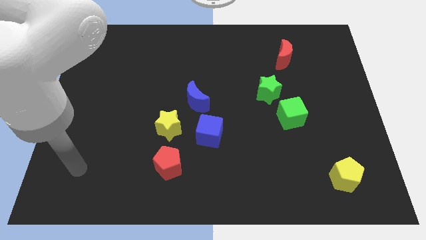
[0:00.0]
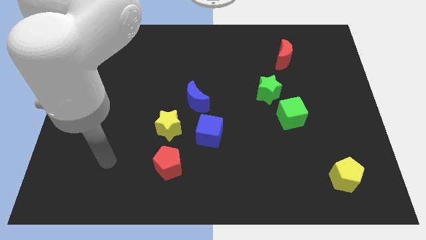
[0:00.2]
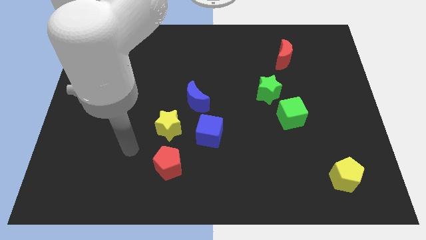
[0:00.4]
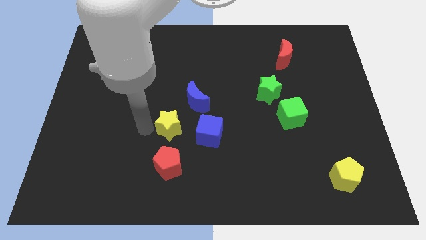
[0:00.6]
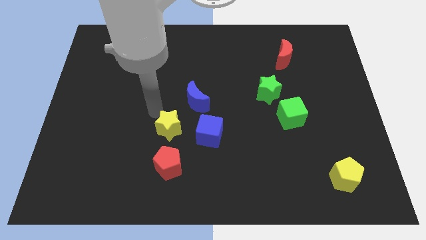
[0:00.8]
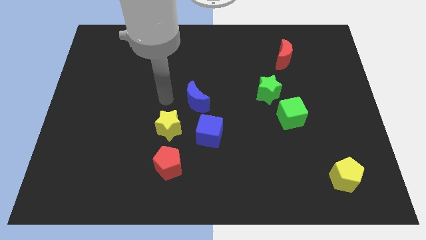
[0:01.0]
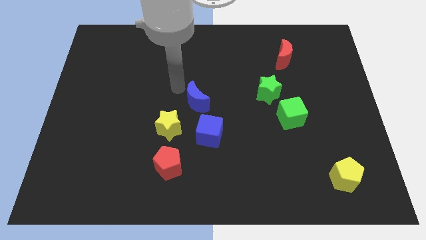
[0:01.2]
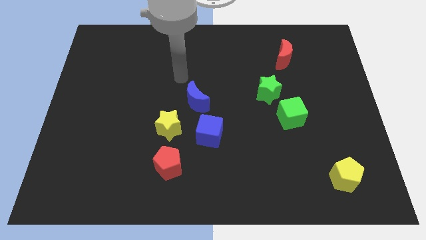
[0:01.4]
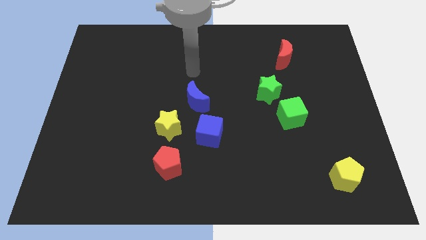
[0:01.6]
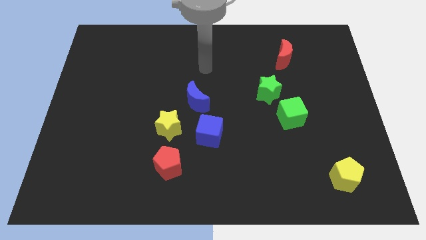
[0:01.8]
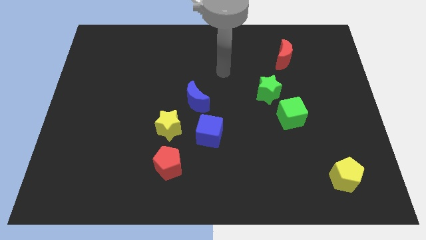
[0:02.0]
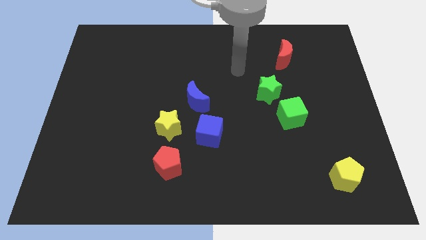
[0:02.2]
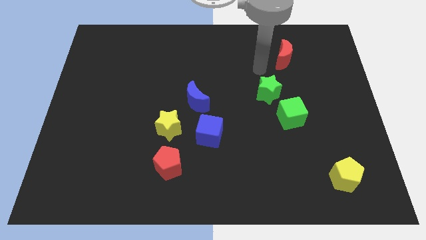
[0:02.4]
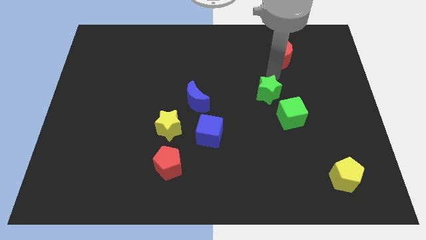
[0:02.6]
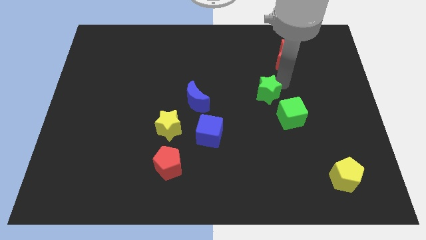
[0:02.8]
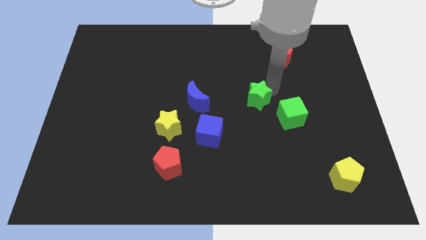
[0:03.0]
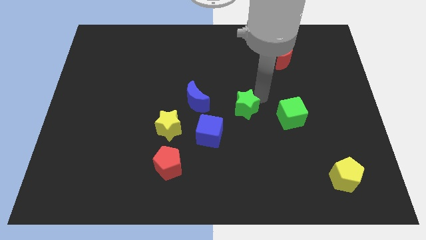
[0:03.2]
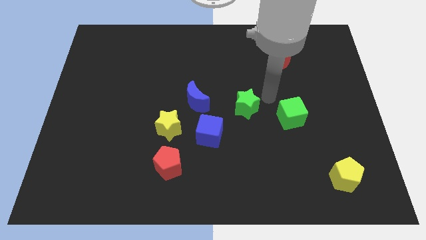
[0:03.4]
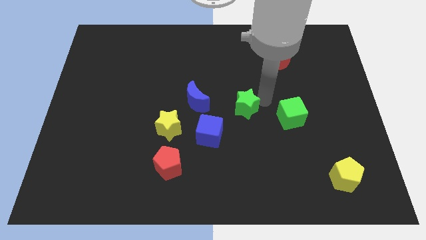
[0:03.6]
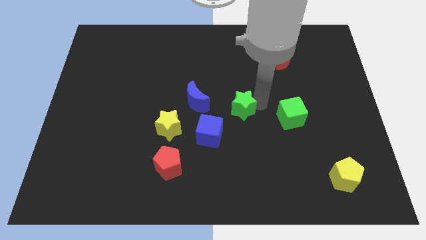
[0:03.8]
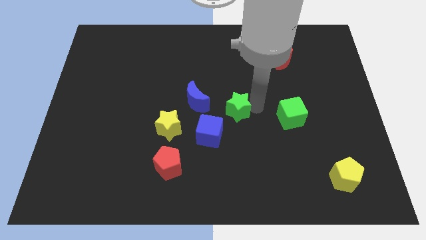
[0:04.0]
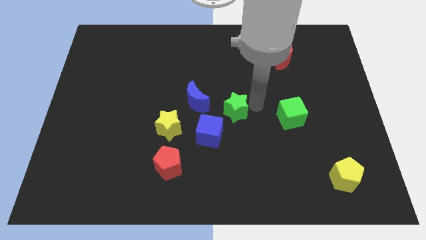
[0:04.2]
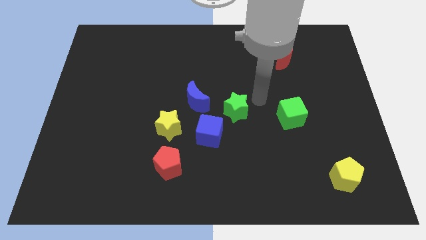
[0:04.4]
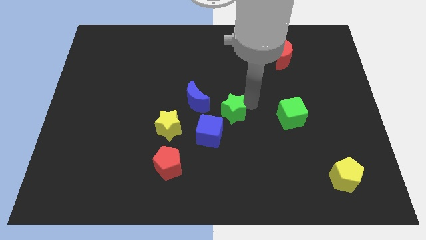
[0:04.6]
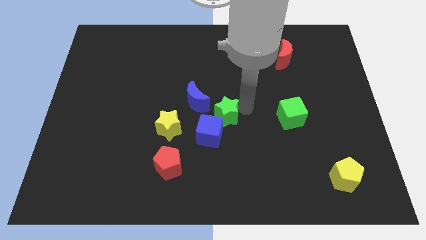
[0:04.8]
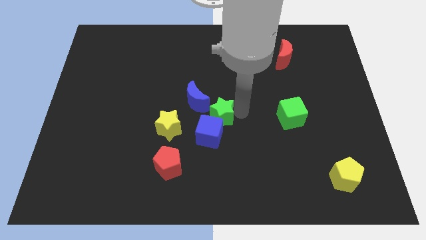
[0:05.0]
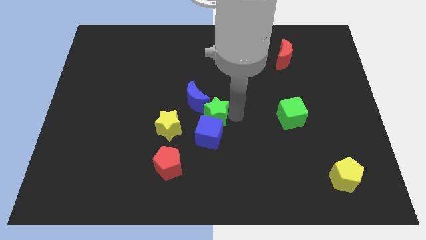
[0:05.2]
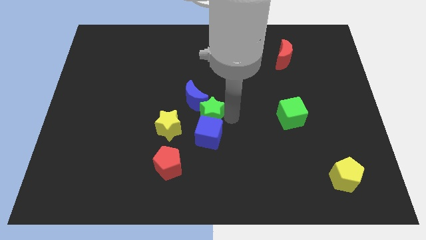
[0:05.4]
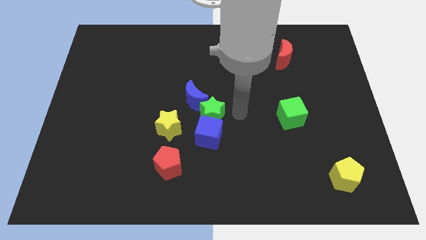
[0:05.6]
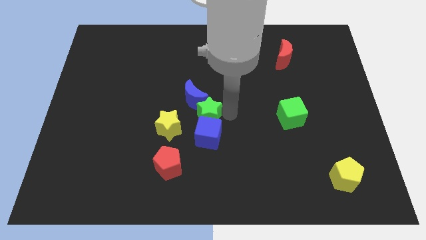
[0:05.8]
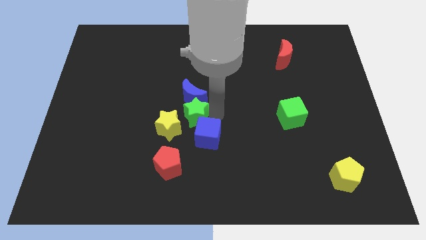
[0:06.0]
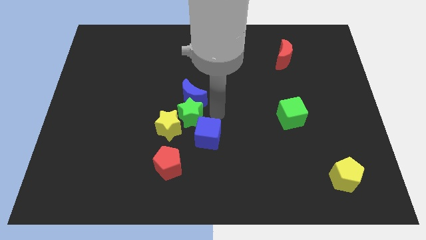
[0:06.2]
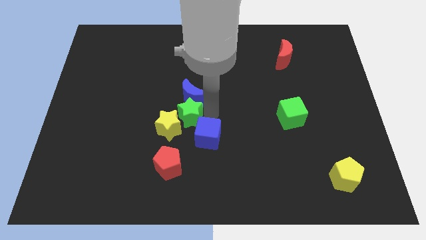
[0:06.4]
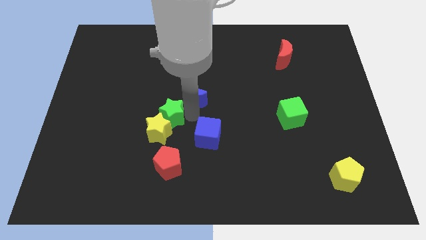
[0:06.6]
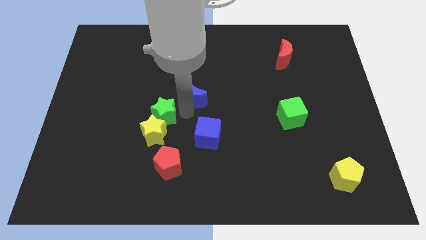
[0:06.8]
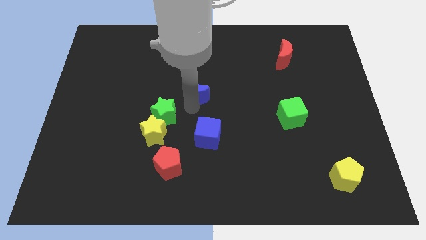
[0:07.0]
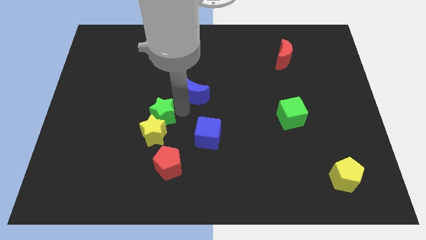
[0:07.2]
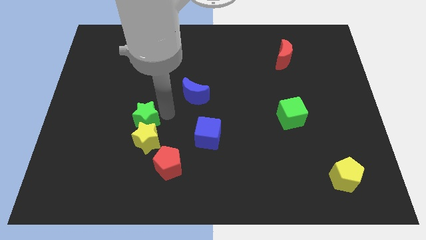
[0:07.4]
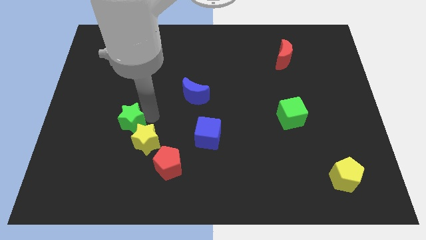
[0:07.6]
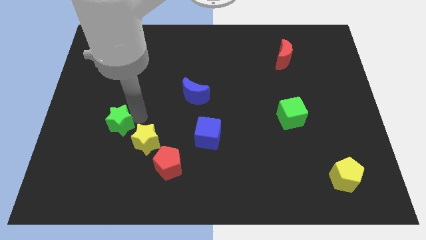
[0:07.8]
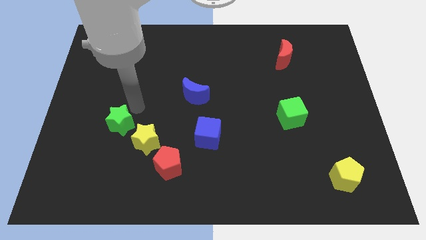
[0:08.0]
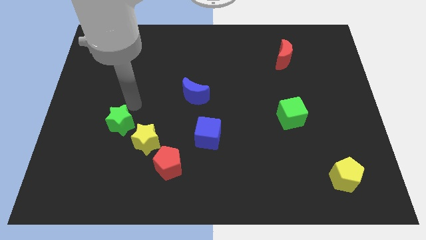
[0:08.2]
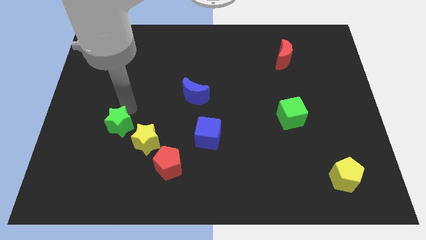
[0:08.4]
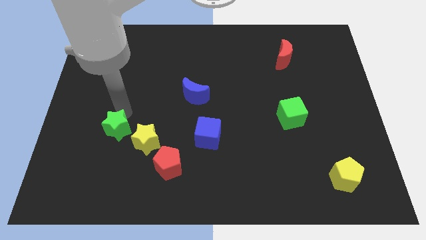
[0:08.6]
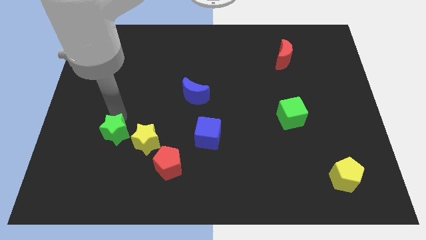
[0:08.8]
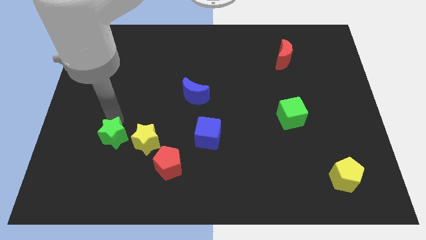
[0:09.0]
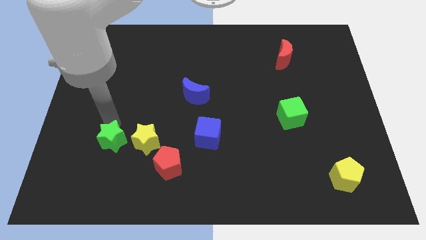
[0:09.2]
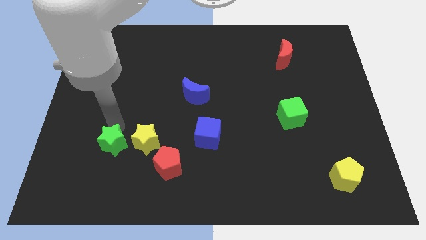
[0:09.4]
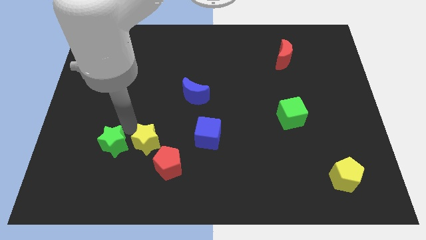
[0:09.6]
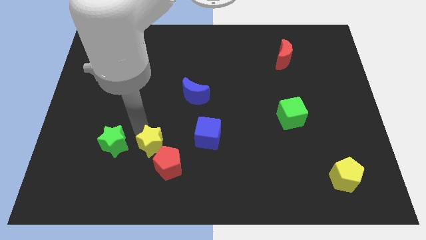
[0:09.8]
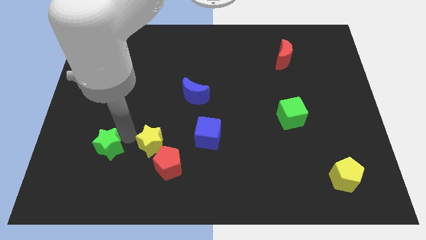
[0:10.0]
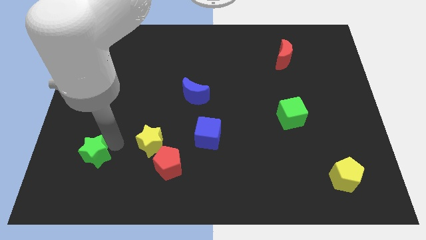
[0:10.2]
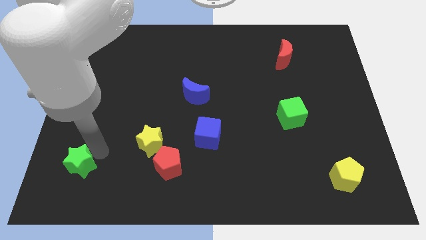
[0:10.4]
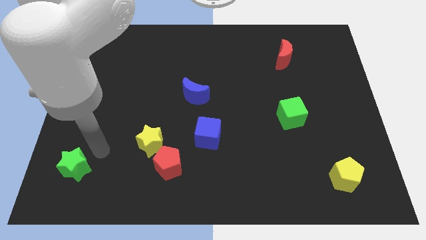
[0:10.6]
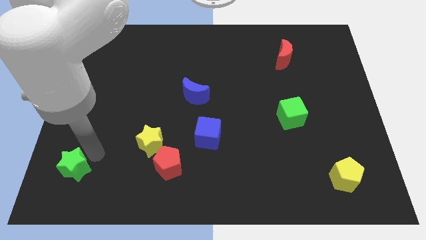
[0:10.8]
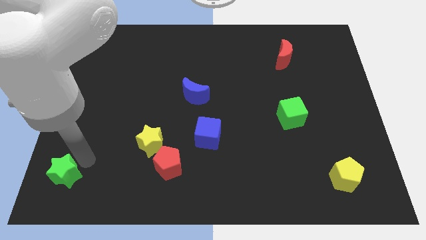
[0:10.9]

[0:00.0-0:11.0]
push the green star to the bottom left
